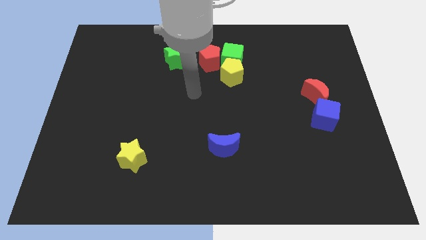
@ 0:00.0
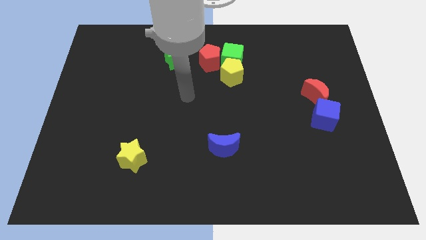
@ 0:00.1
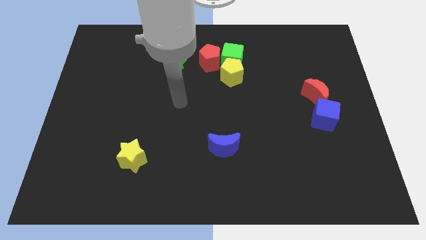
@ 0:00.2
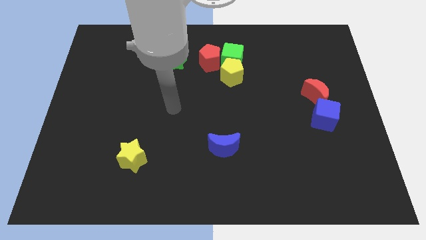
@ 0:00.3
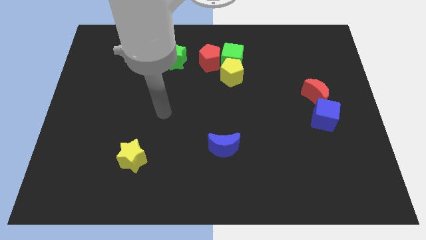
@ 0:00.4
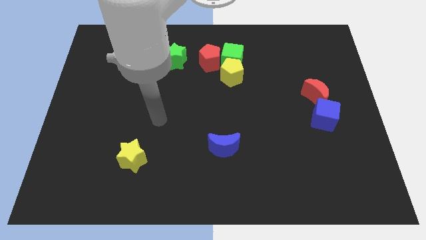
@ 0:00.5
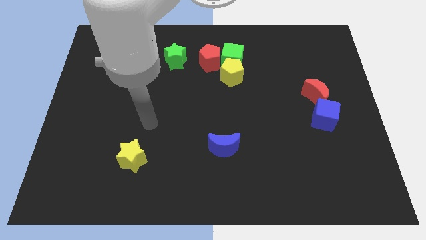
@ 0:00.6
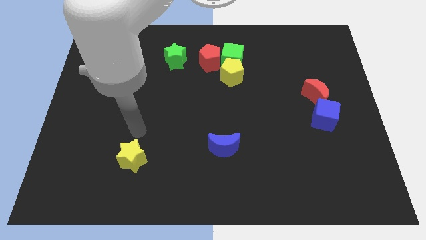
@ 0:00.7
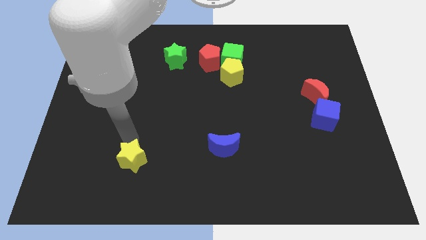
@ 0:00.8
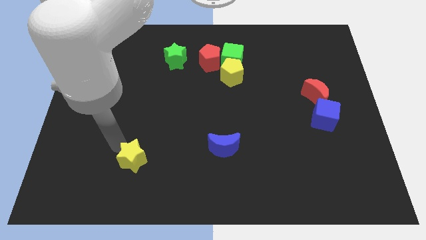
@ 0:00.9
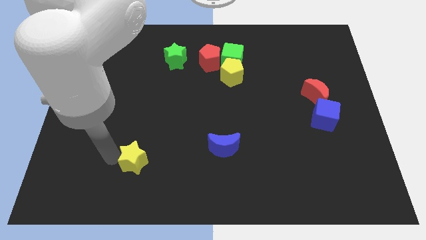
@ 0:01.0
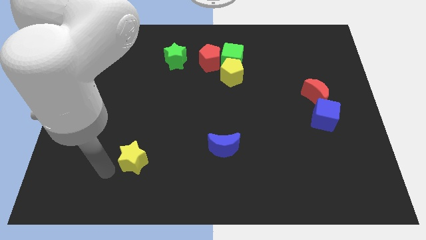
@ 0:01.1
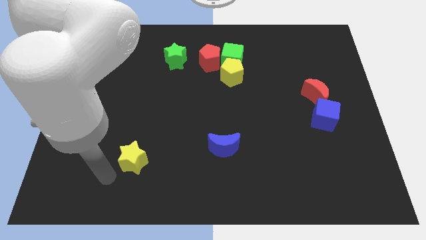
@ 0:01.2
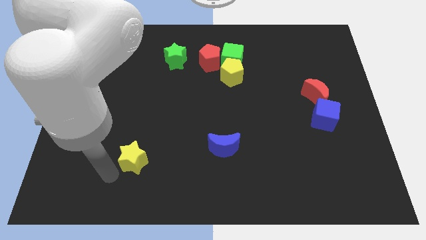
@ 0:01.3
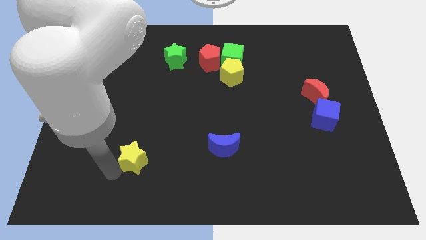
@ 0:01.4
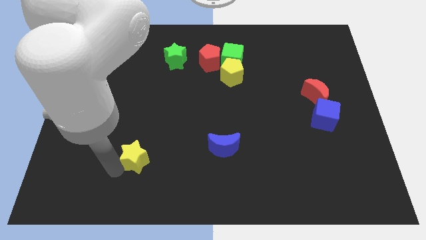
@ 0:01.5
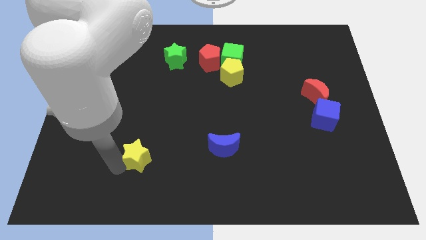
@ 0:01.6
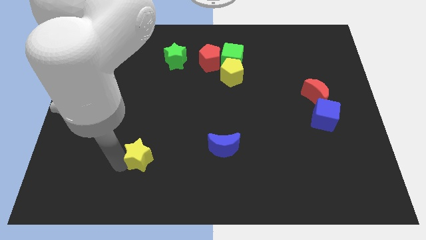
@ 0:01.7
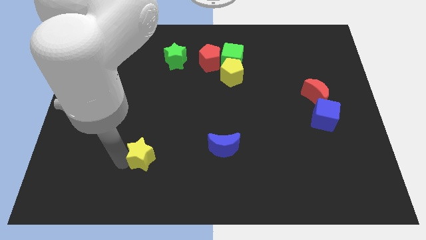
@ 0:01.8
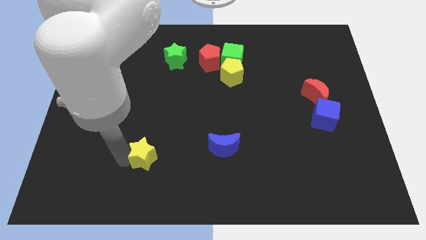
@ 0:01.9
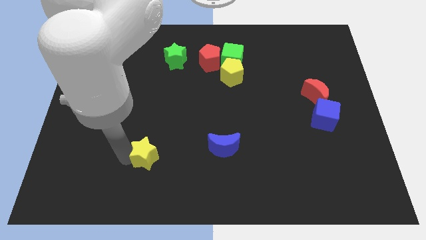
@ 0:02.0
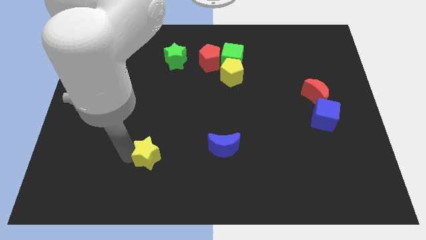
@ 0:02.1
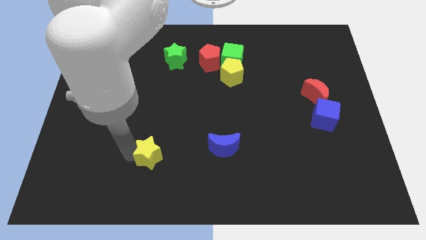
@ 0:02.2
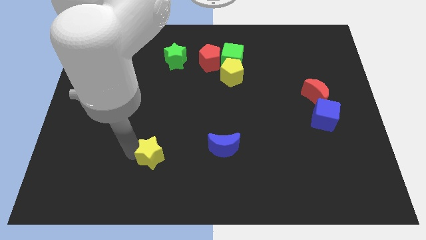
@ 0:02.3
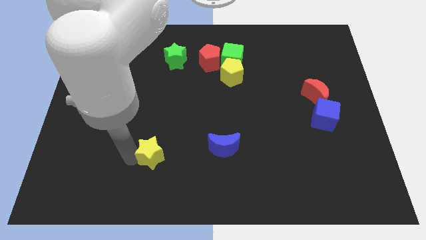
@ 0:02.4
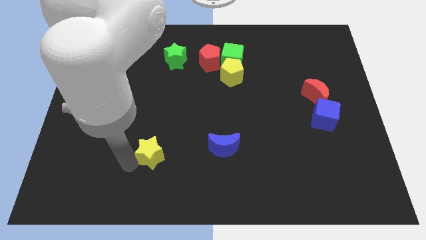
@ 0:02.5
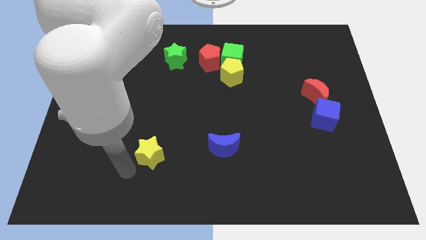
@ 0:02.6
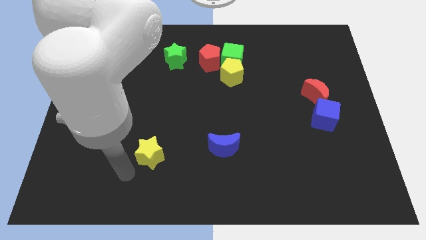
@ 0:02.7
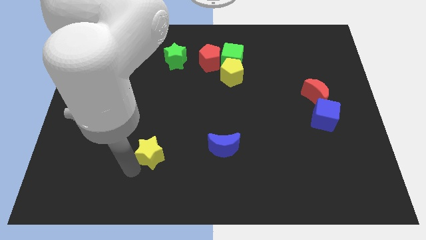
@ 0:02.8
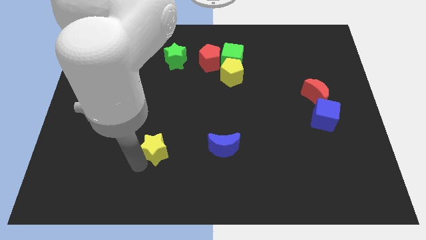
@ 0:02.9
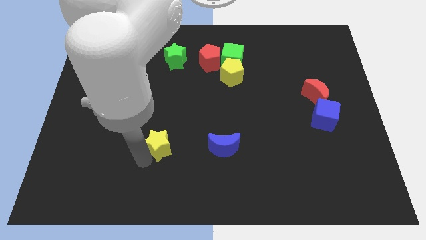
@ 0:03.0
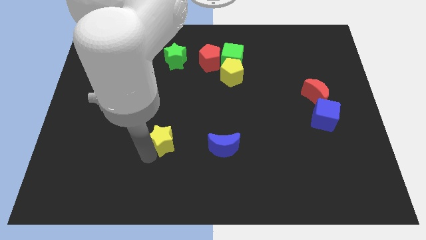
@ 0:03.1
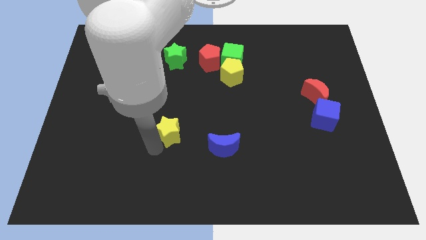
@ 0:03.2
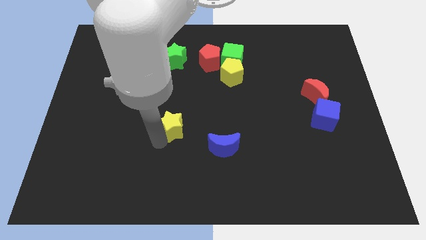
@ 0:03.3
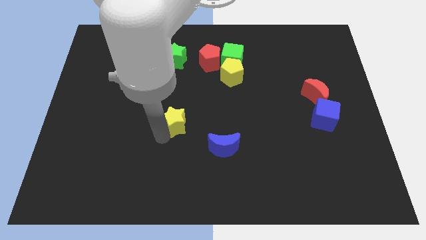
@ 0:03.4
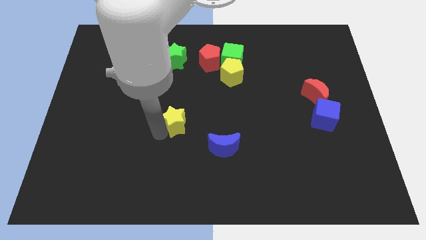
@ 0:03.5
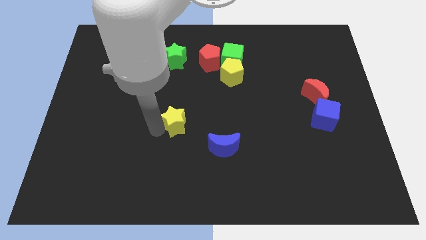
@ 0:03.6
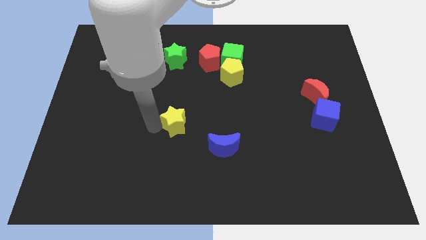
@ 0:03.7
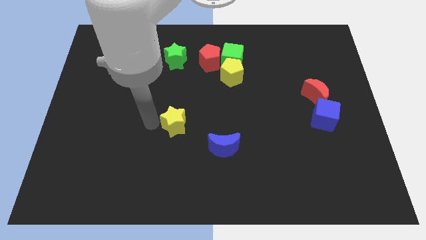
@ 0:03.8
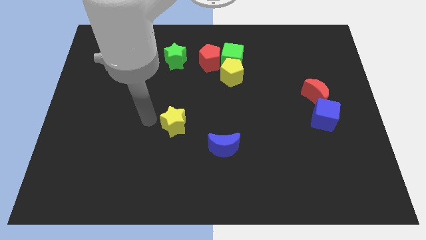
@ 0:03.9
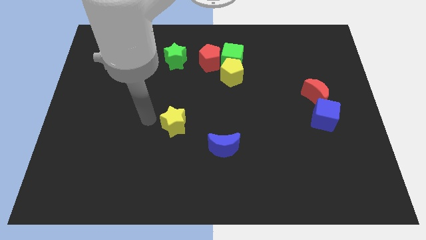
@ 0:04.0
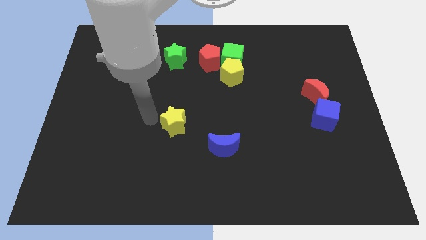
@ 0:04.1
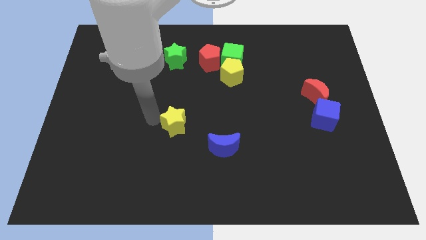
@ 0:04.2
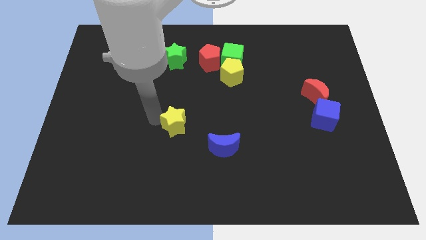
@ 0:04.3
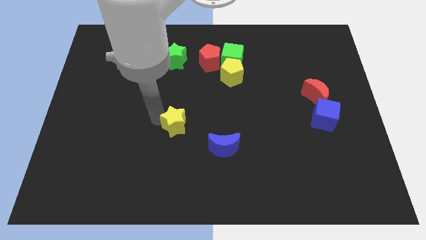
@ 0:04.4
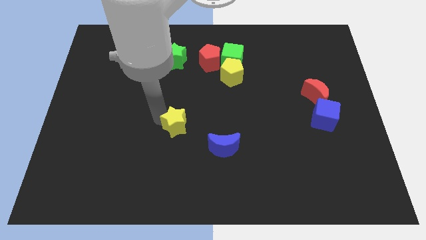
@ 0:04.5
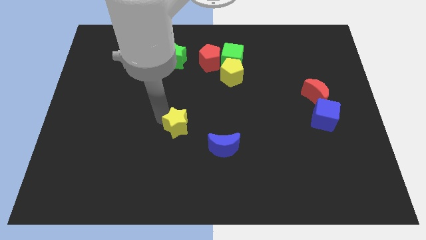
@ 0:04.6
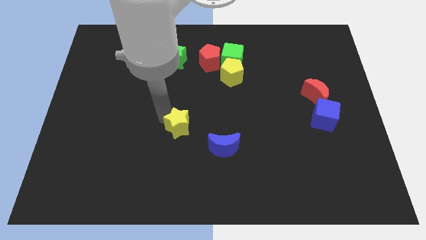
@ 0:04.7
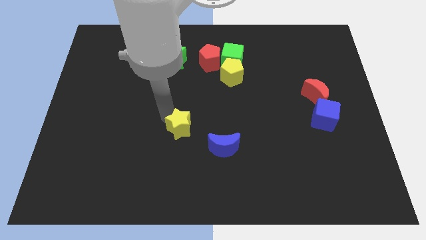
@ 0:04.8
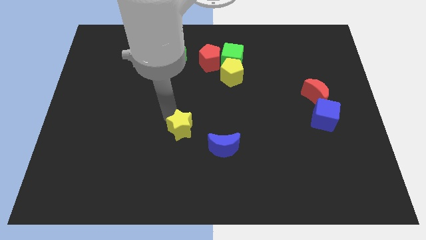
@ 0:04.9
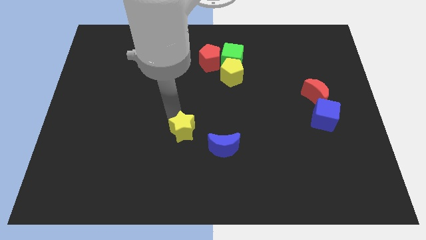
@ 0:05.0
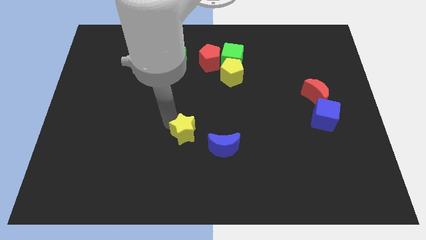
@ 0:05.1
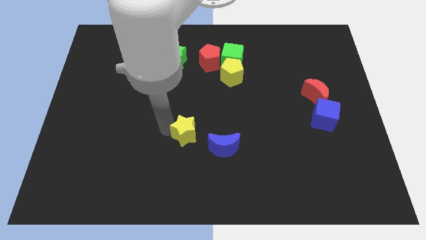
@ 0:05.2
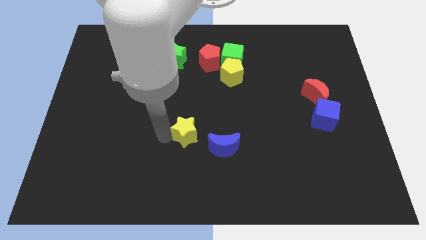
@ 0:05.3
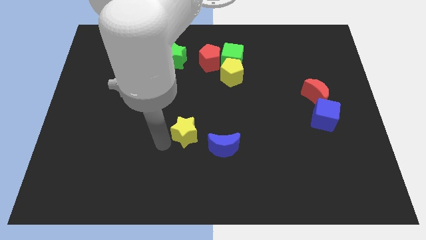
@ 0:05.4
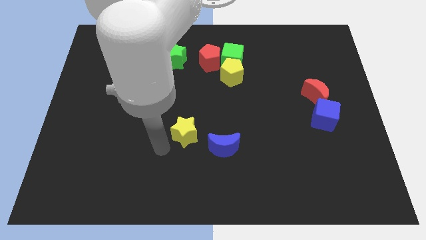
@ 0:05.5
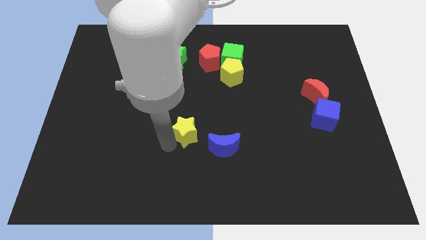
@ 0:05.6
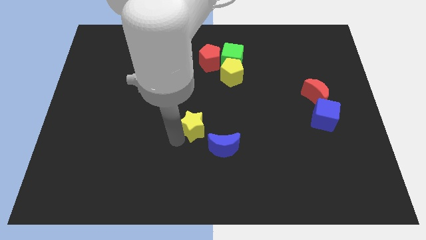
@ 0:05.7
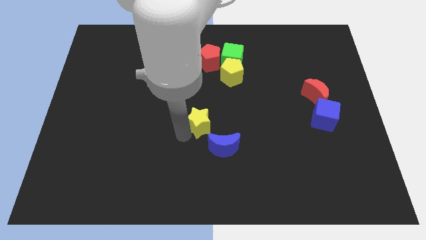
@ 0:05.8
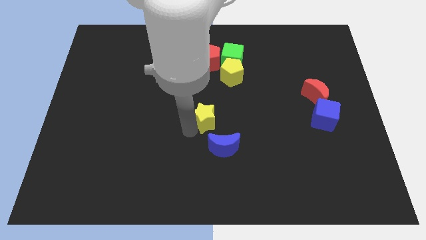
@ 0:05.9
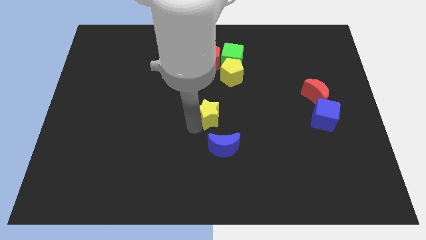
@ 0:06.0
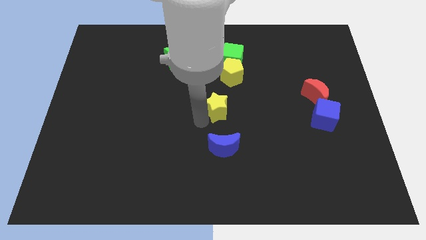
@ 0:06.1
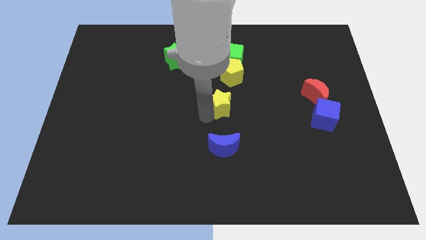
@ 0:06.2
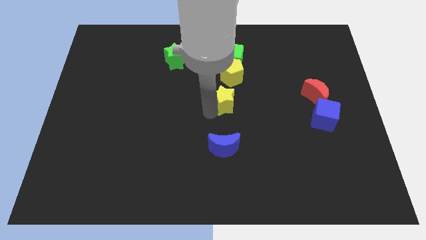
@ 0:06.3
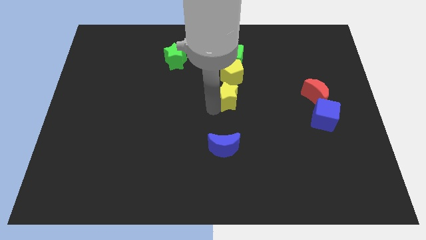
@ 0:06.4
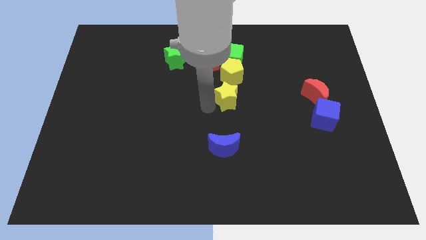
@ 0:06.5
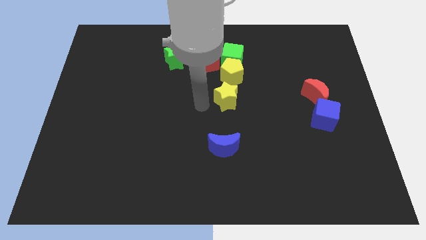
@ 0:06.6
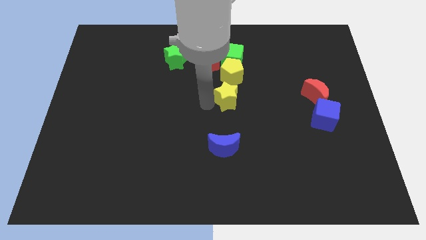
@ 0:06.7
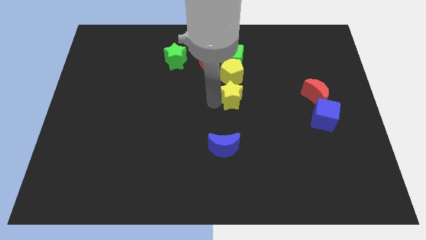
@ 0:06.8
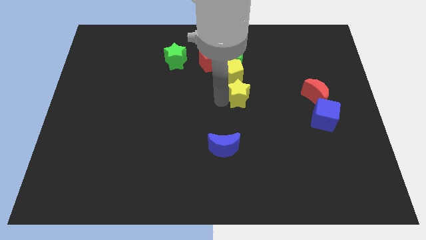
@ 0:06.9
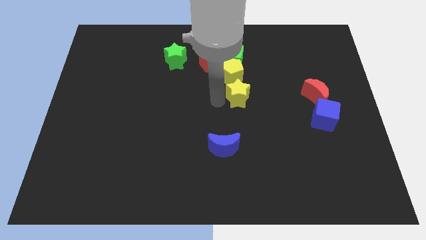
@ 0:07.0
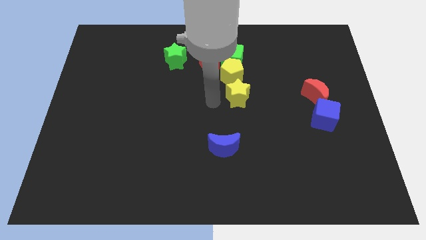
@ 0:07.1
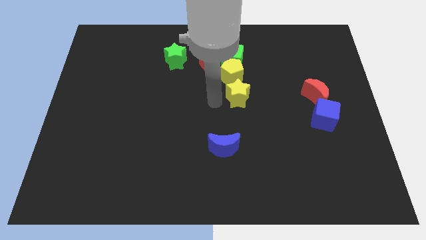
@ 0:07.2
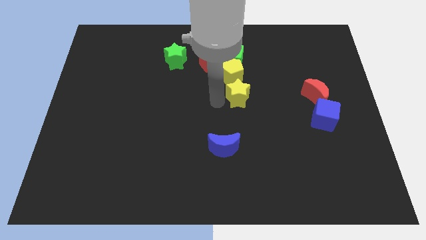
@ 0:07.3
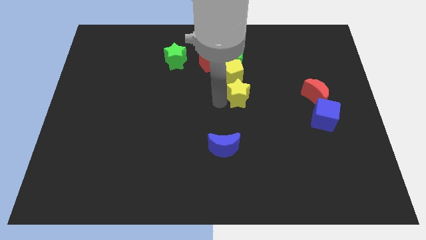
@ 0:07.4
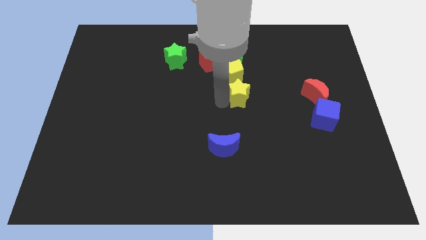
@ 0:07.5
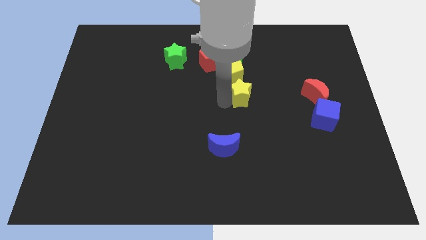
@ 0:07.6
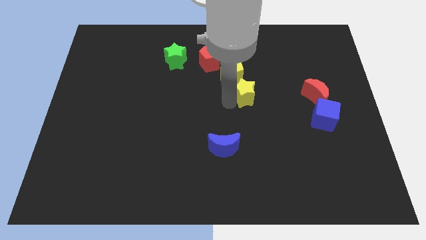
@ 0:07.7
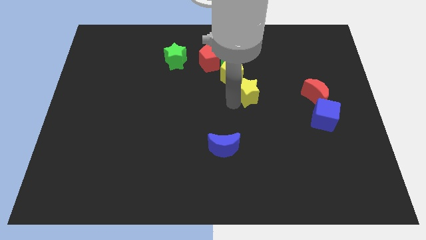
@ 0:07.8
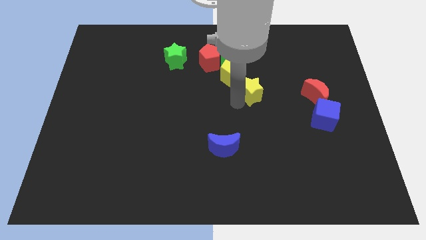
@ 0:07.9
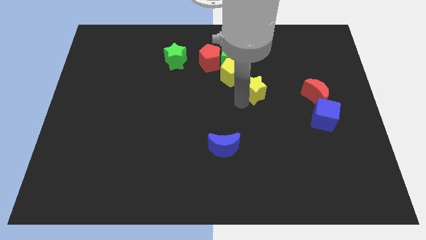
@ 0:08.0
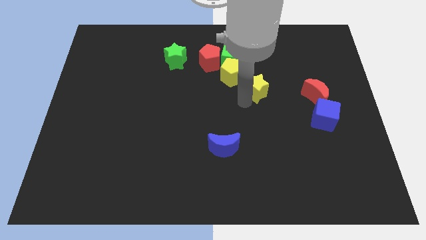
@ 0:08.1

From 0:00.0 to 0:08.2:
slide the yellow star right of the yellow pentagon
